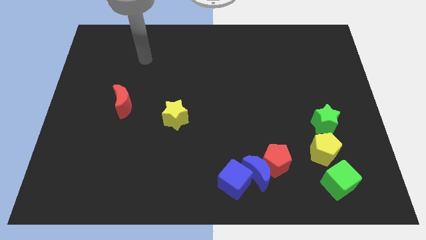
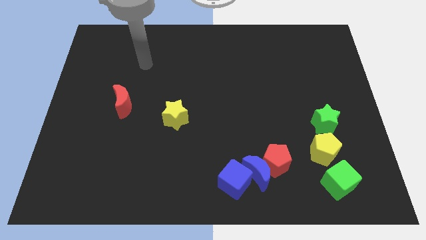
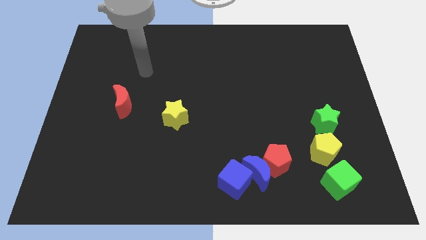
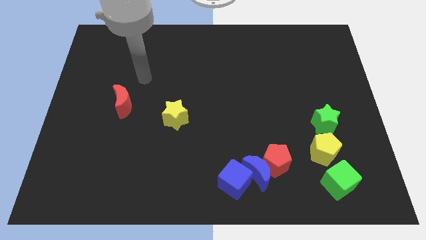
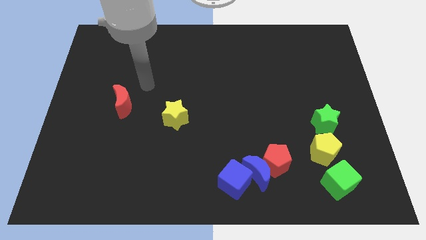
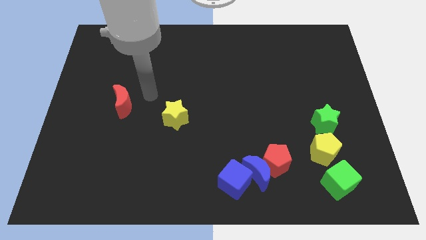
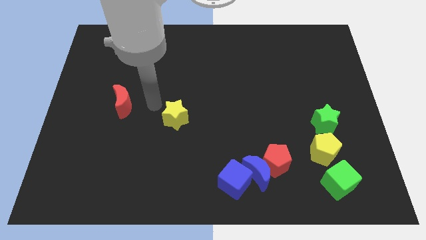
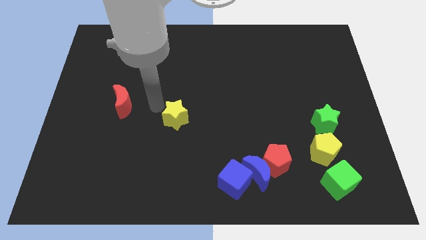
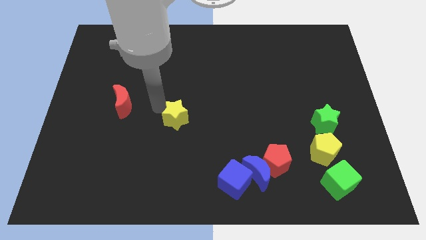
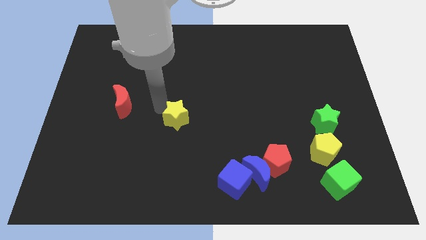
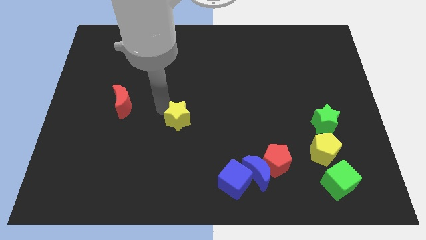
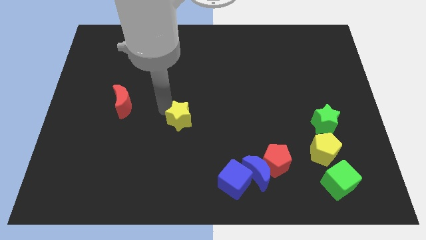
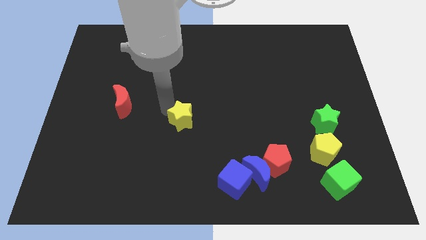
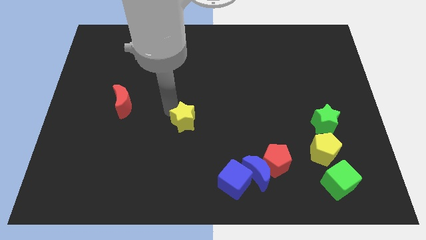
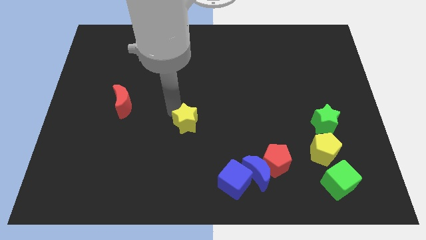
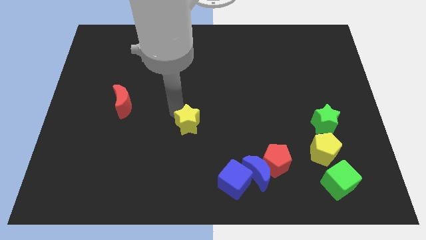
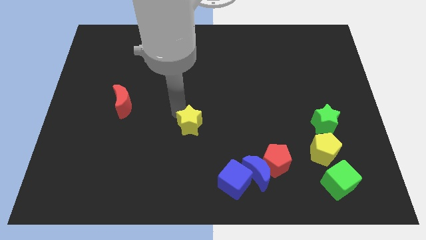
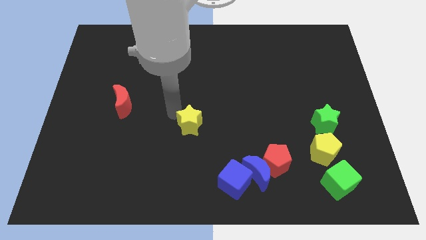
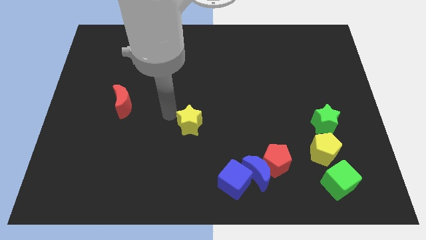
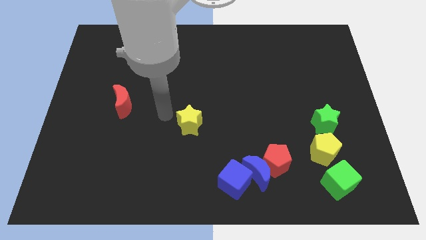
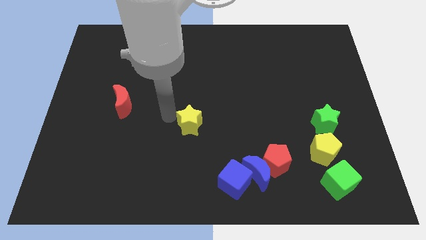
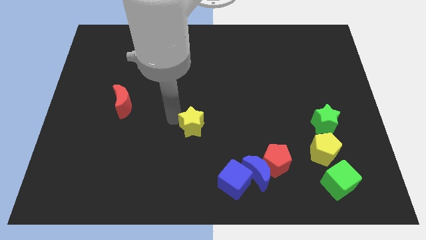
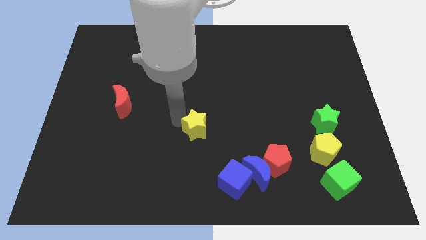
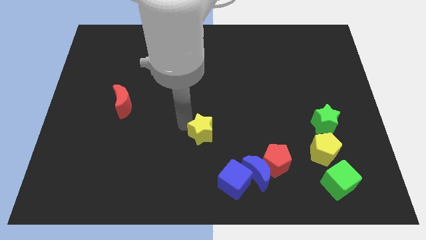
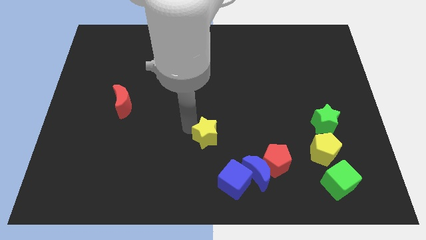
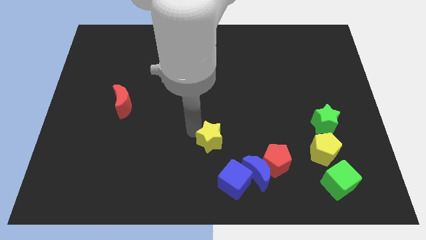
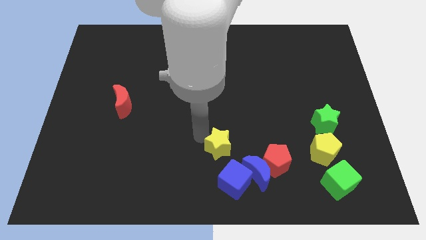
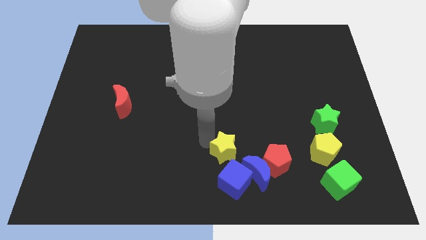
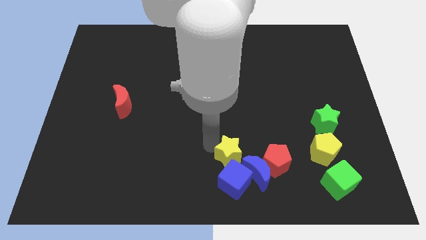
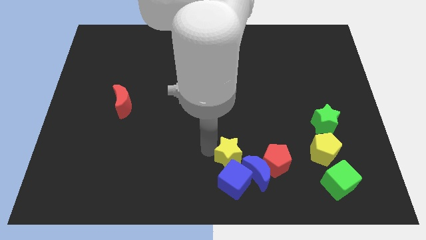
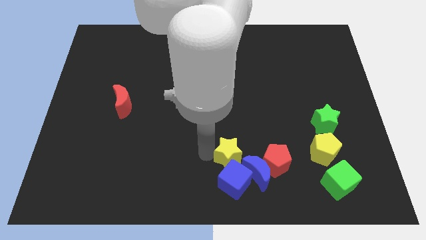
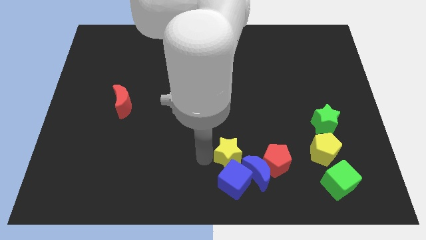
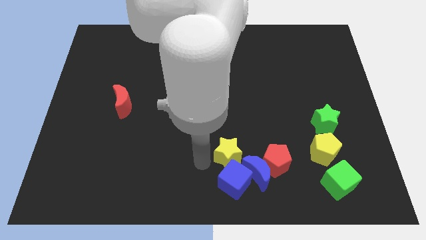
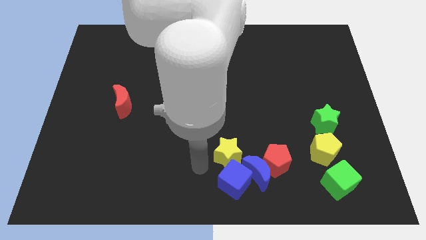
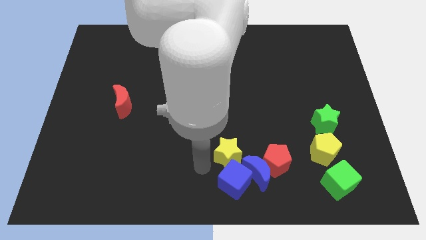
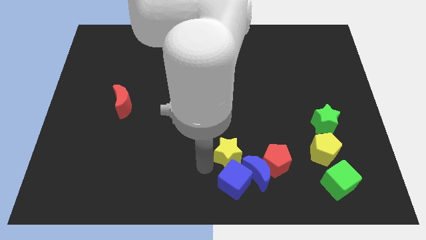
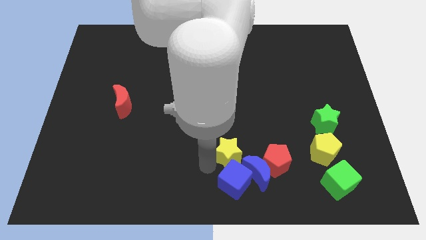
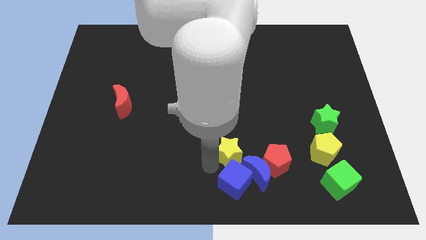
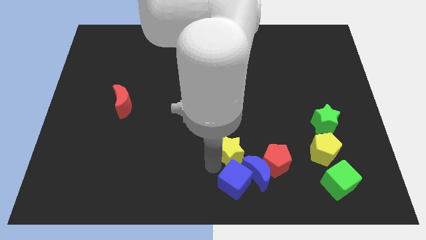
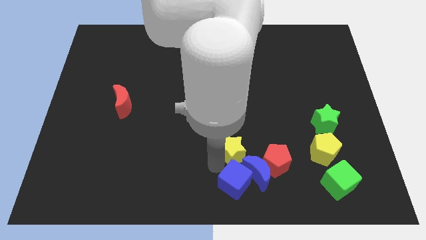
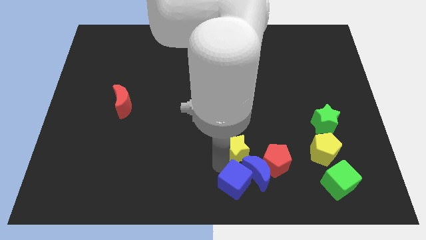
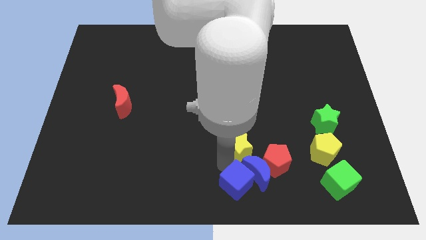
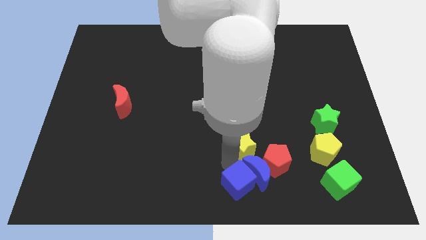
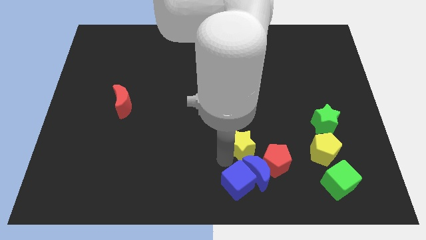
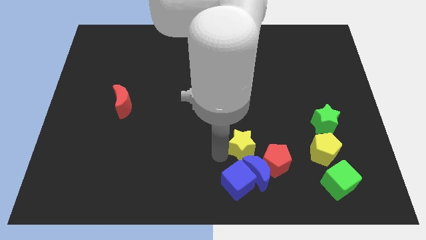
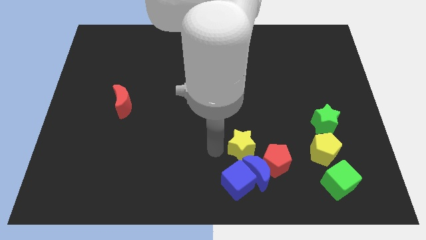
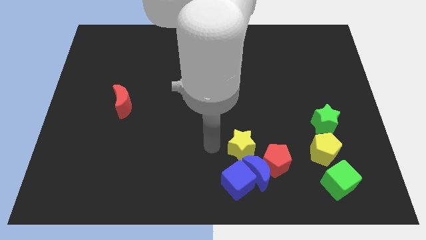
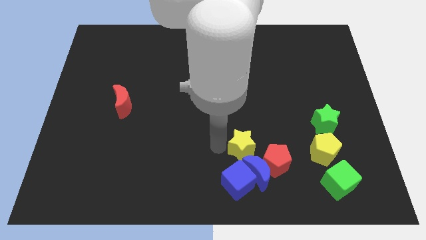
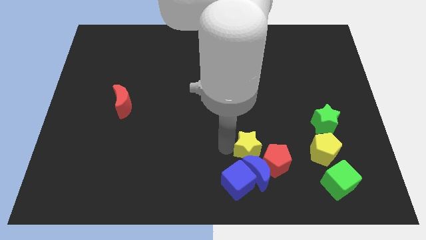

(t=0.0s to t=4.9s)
move the yellow star to the left side of the yellow pentagon

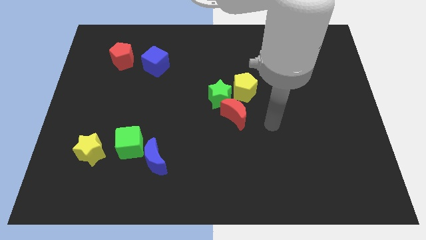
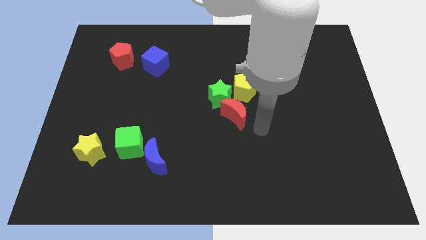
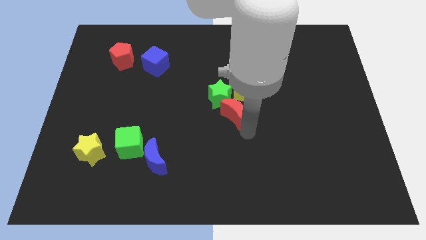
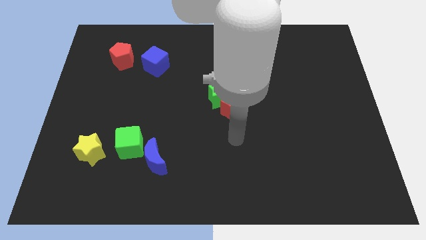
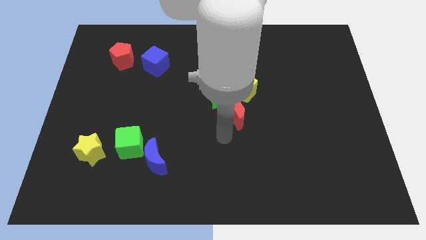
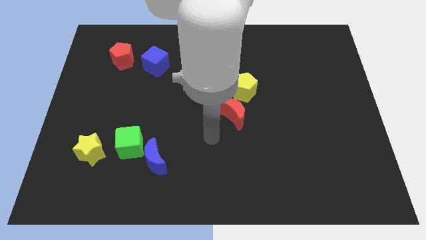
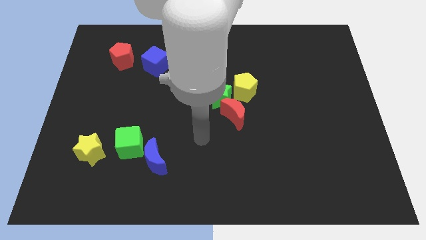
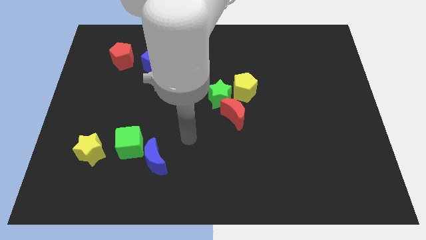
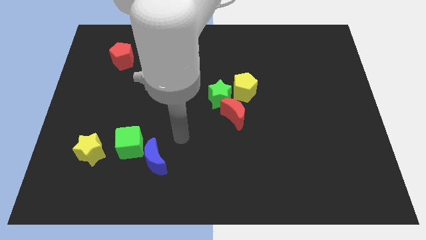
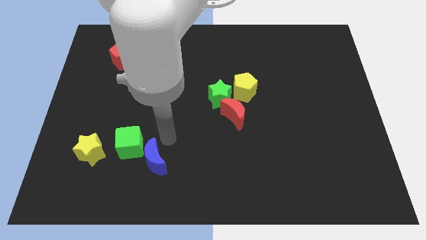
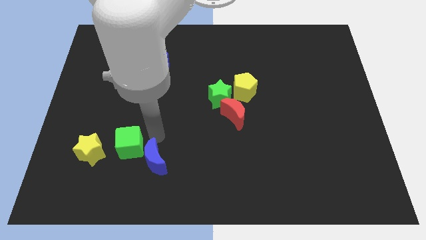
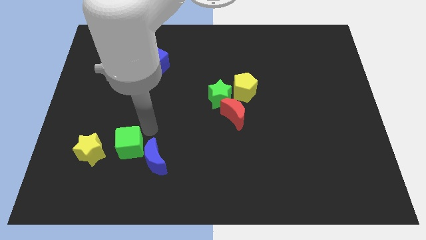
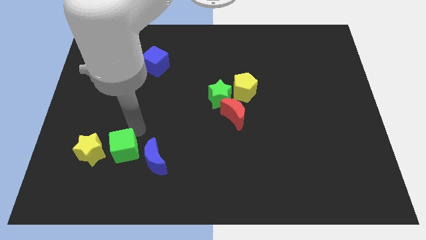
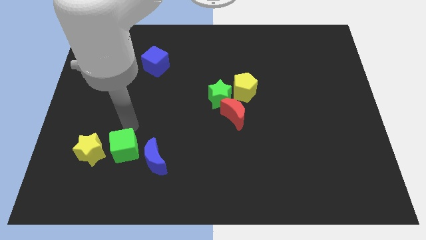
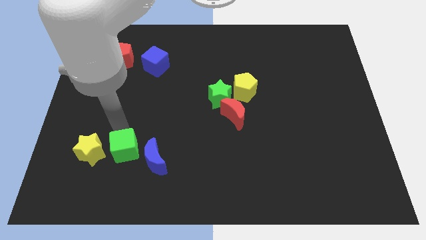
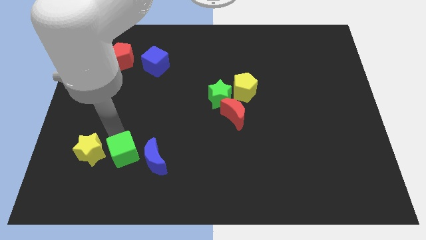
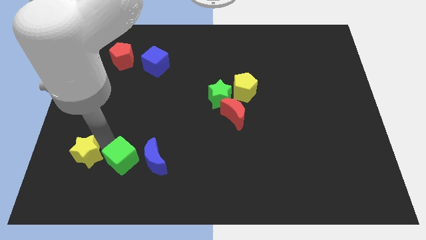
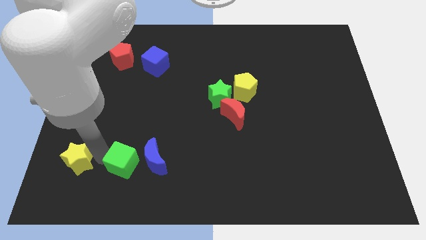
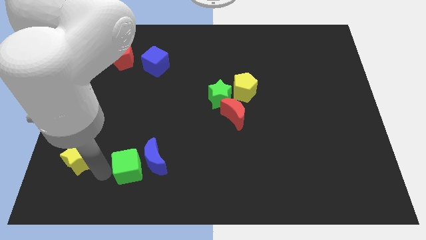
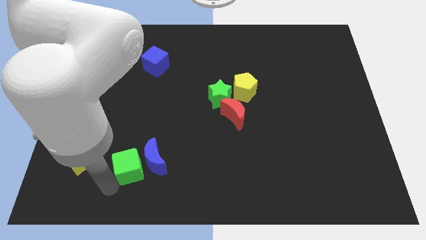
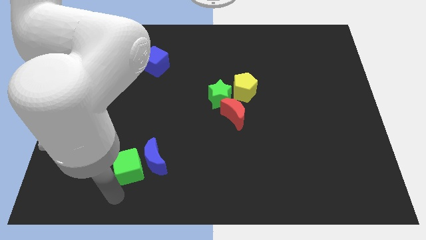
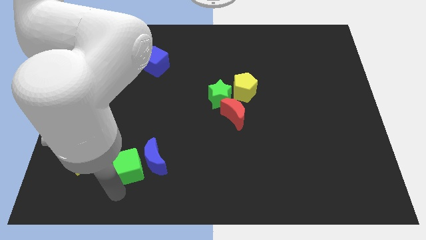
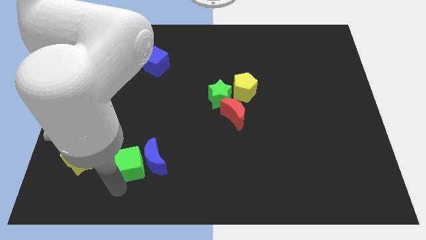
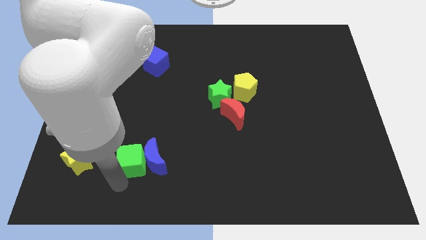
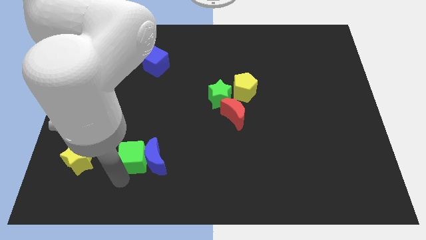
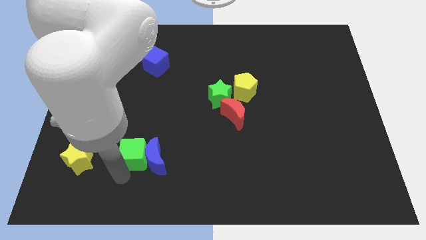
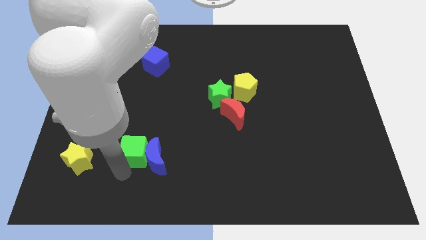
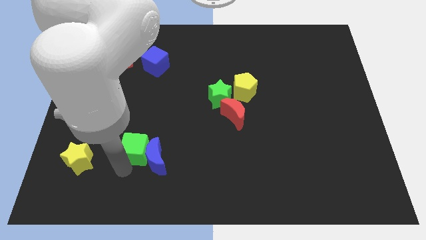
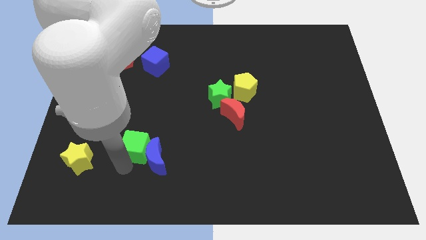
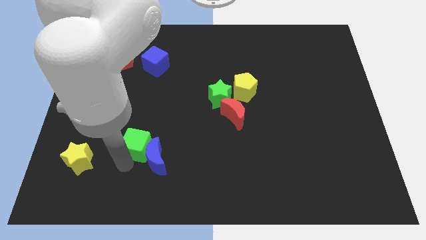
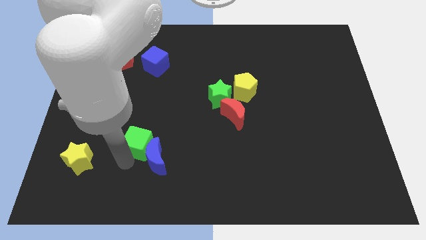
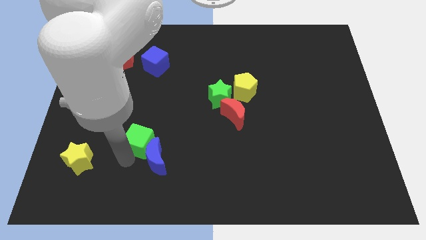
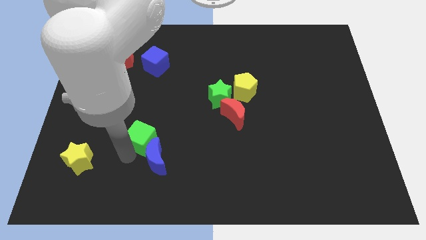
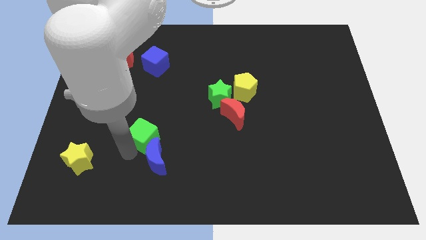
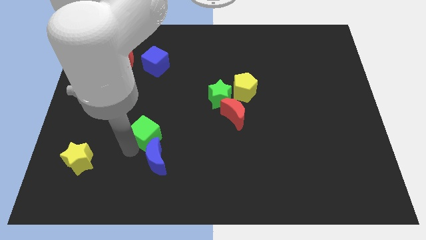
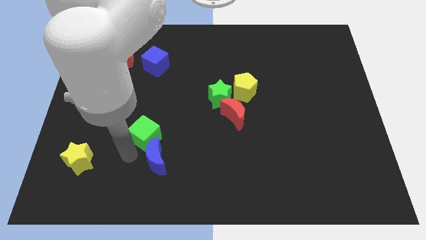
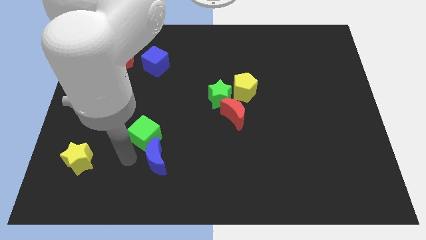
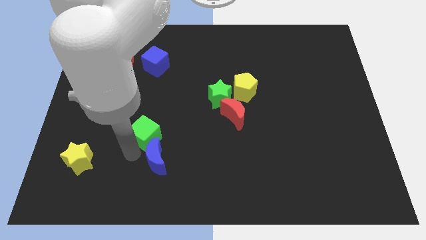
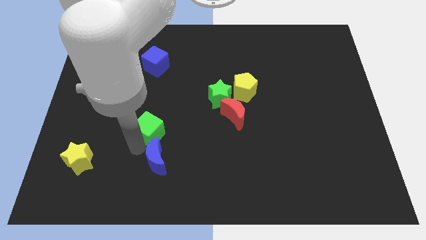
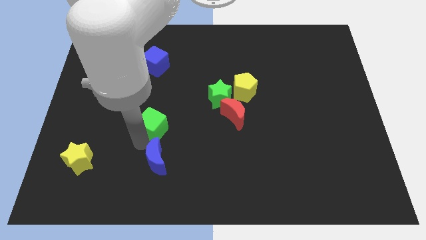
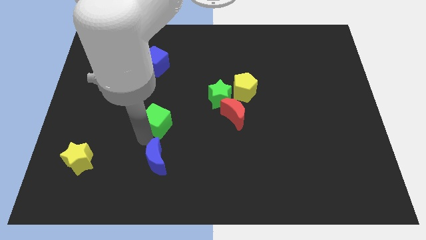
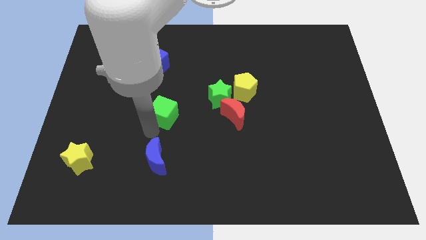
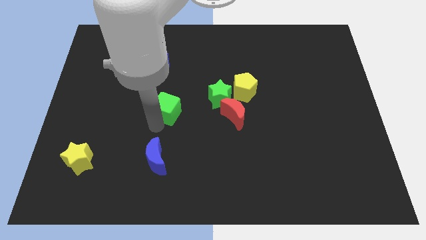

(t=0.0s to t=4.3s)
put the green cube to the left of the green star
